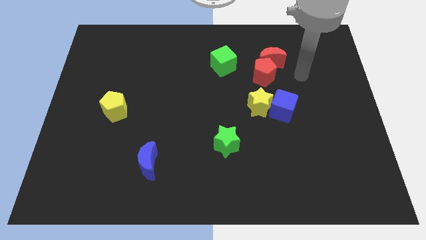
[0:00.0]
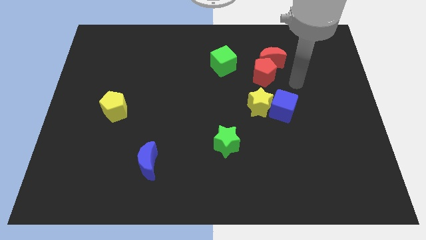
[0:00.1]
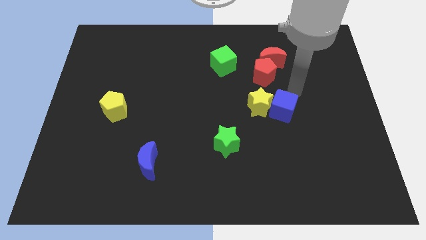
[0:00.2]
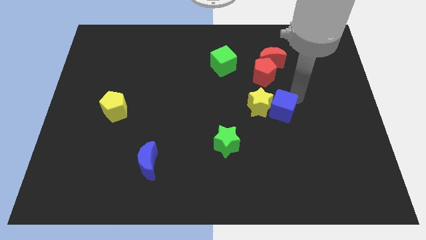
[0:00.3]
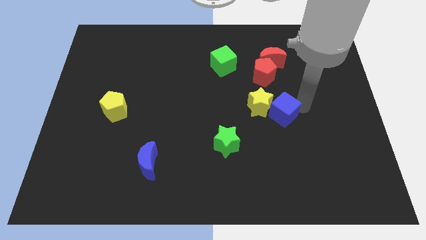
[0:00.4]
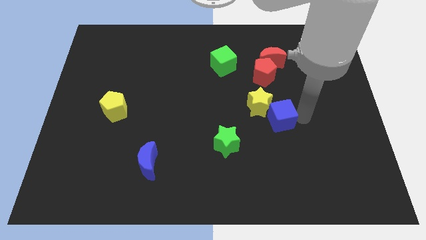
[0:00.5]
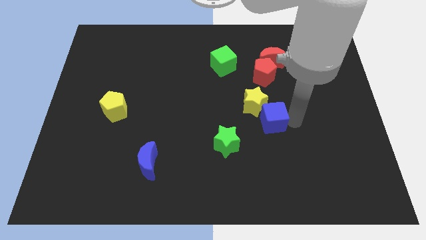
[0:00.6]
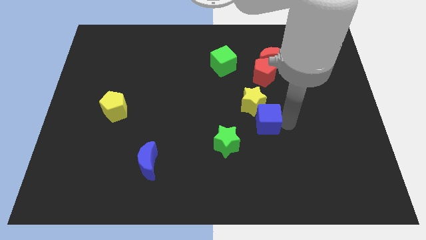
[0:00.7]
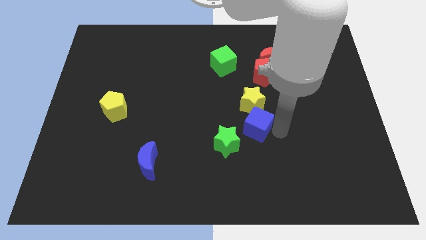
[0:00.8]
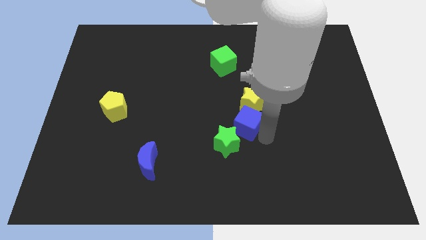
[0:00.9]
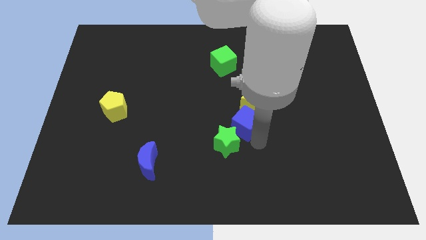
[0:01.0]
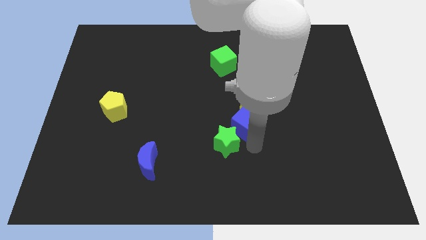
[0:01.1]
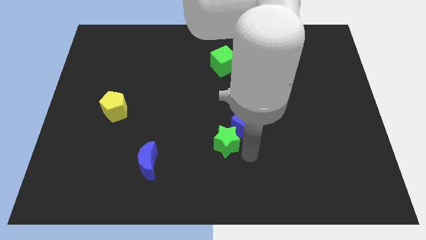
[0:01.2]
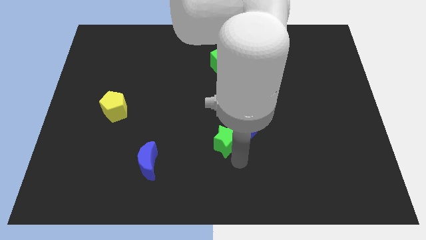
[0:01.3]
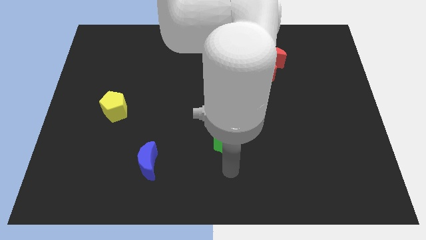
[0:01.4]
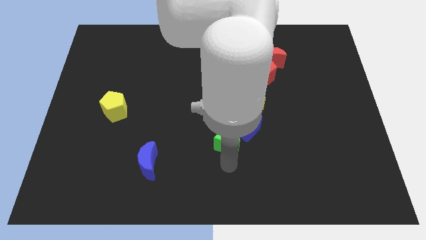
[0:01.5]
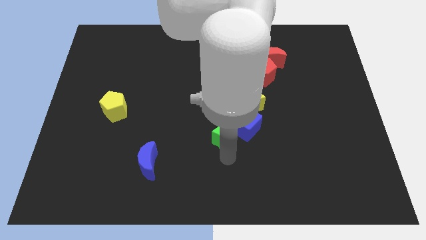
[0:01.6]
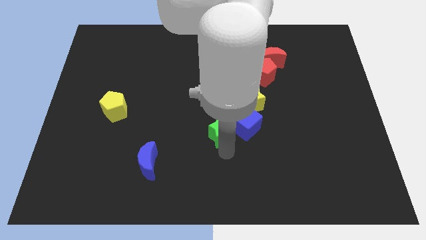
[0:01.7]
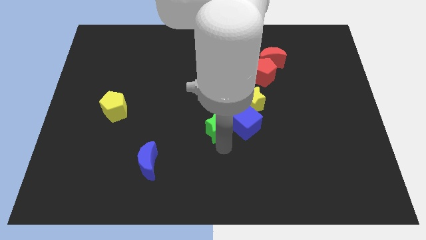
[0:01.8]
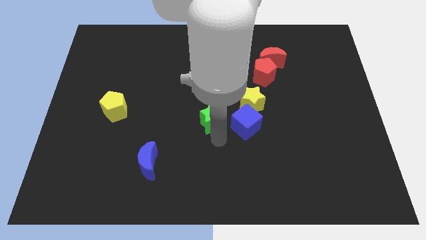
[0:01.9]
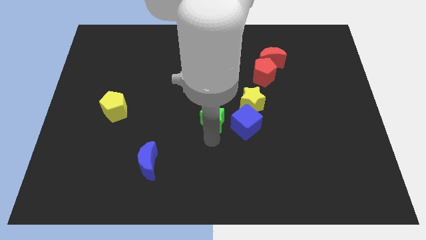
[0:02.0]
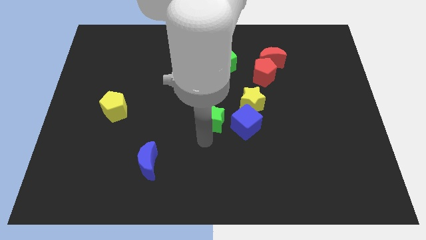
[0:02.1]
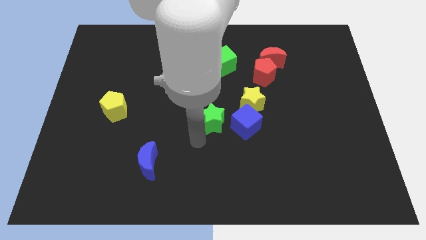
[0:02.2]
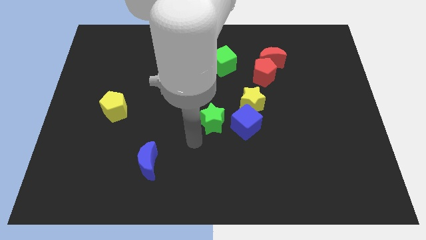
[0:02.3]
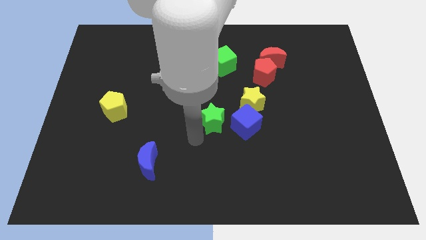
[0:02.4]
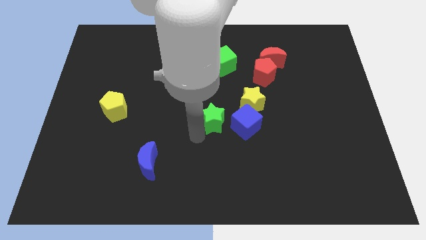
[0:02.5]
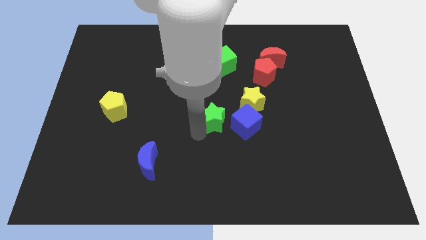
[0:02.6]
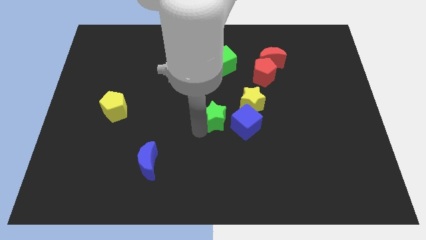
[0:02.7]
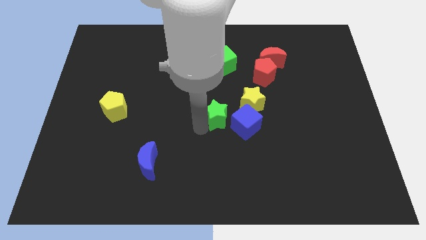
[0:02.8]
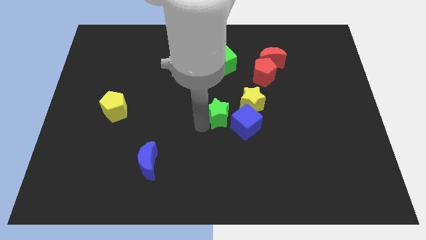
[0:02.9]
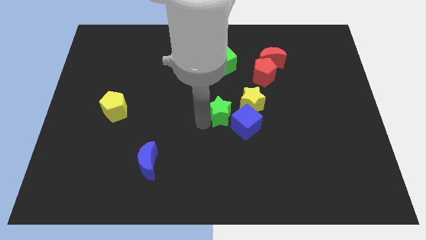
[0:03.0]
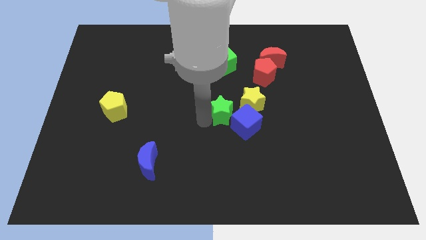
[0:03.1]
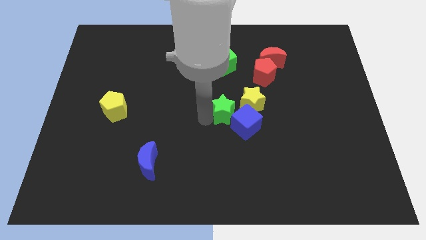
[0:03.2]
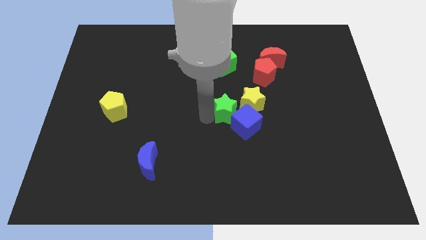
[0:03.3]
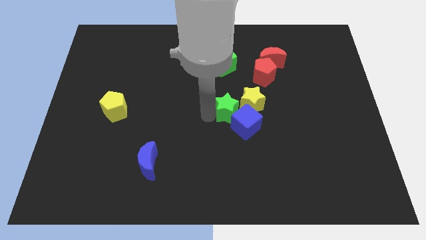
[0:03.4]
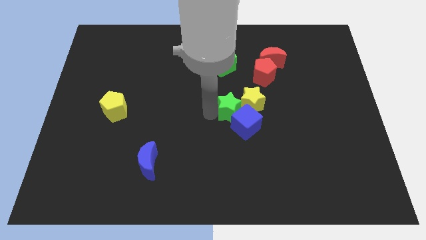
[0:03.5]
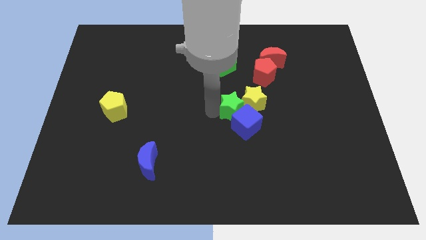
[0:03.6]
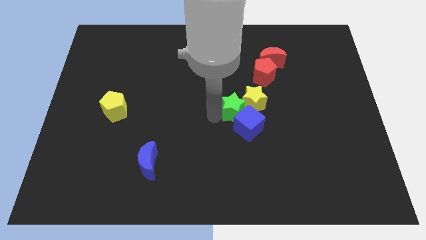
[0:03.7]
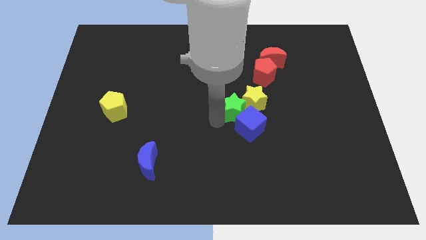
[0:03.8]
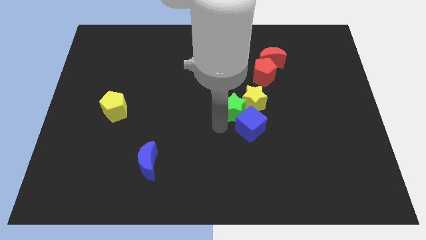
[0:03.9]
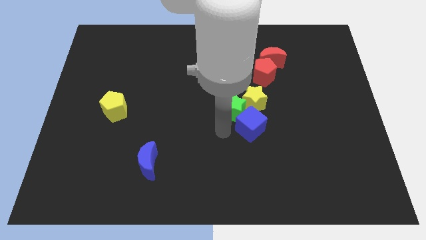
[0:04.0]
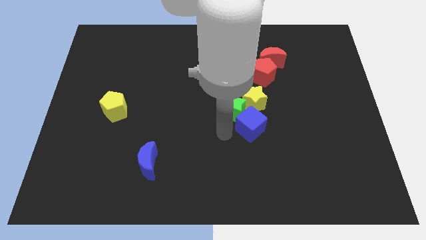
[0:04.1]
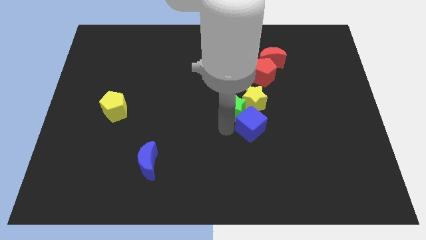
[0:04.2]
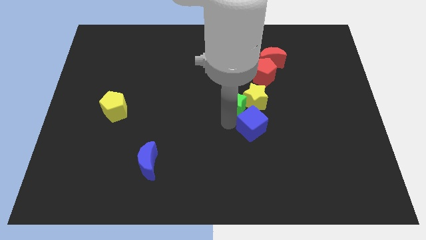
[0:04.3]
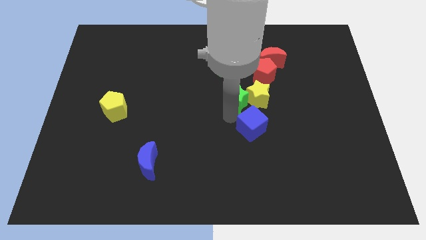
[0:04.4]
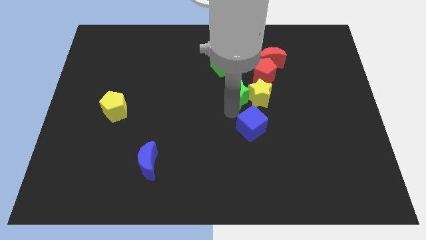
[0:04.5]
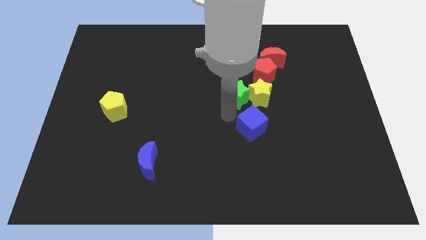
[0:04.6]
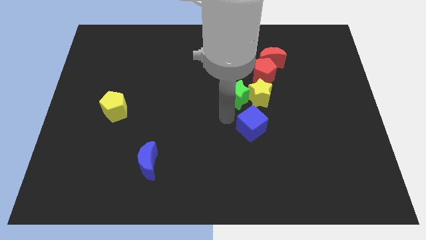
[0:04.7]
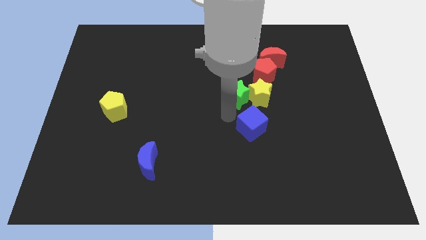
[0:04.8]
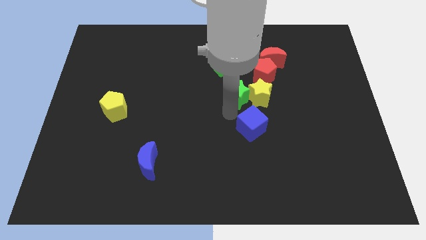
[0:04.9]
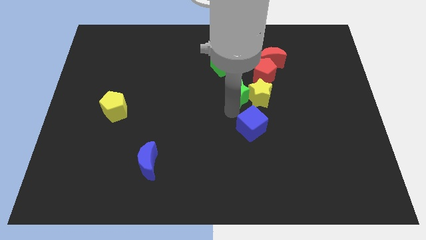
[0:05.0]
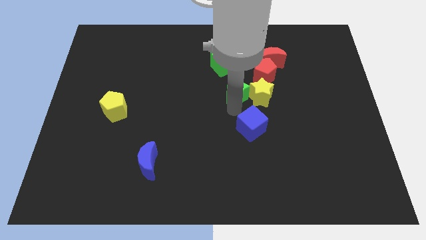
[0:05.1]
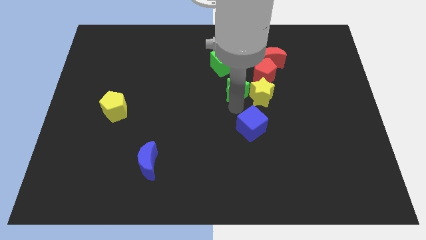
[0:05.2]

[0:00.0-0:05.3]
move the green star to the bottom right of the green cube

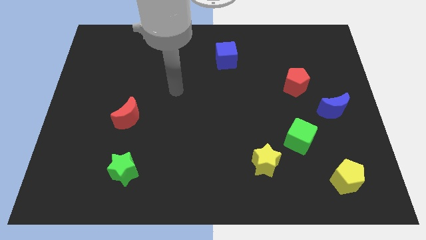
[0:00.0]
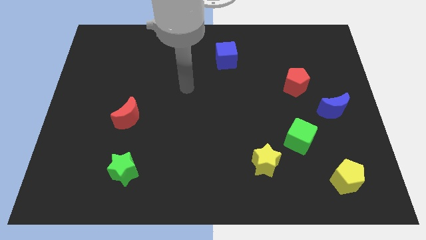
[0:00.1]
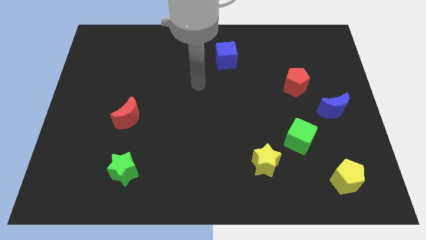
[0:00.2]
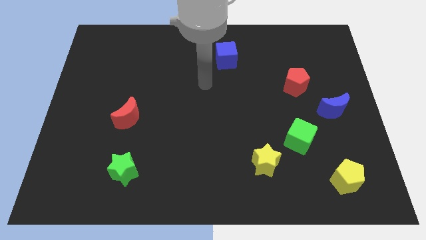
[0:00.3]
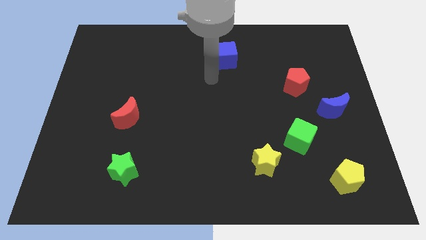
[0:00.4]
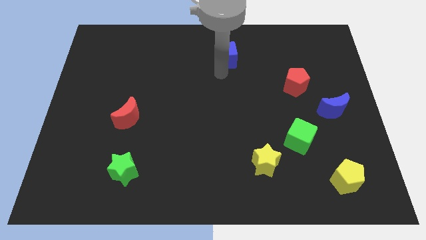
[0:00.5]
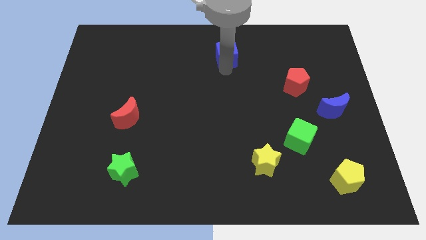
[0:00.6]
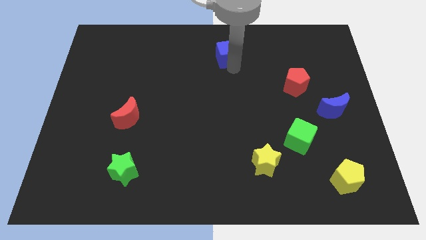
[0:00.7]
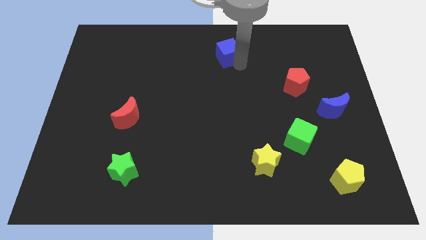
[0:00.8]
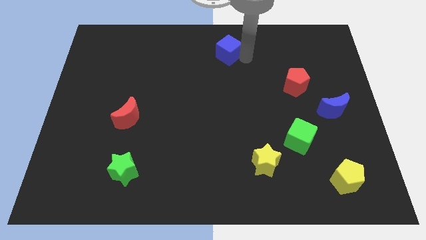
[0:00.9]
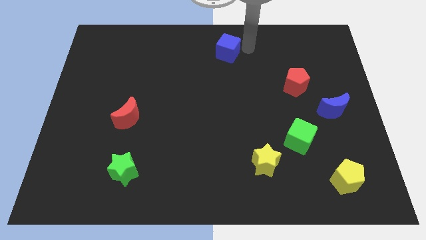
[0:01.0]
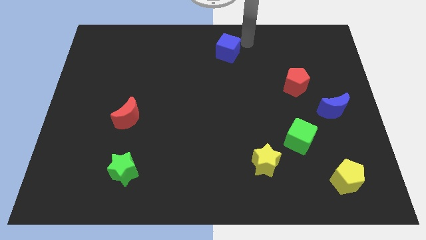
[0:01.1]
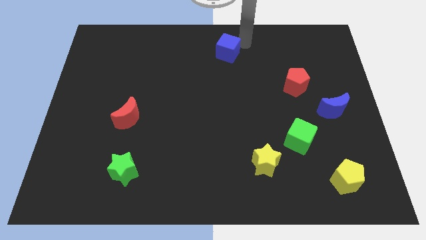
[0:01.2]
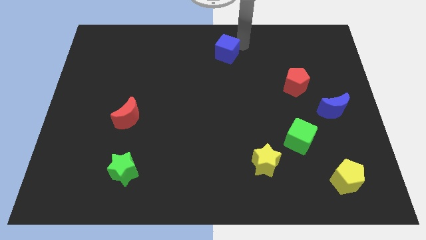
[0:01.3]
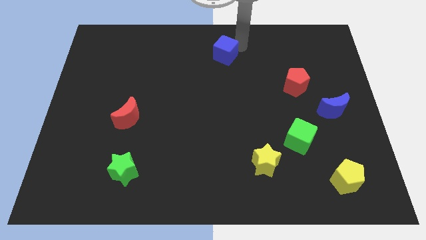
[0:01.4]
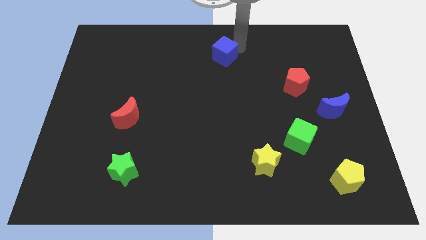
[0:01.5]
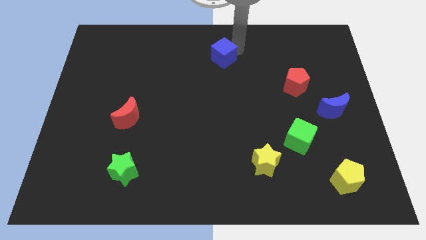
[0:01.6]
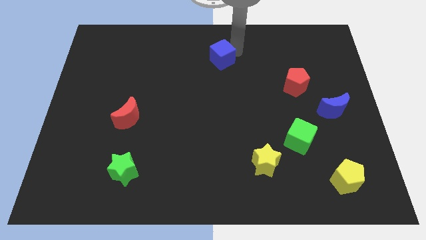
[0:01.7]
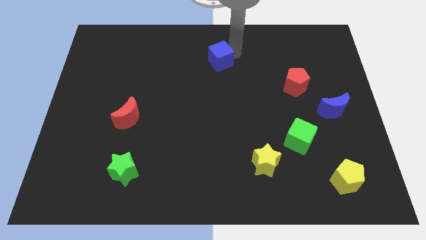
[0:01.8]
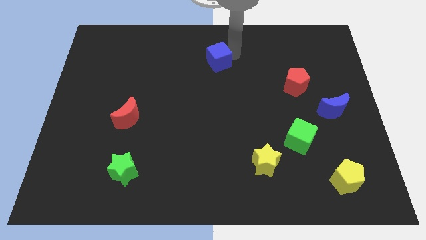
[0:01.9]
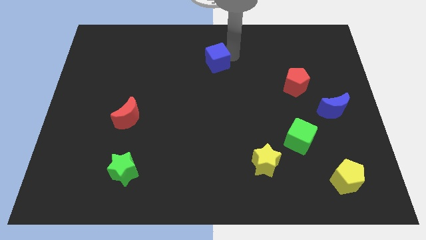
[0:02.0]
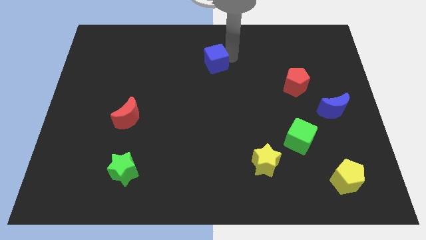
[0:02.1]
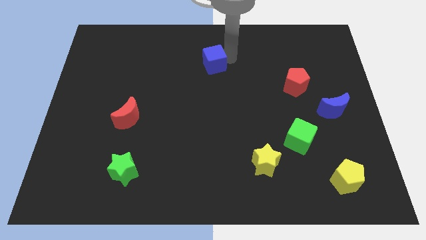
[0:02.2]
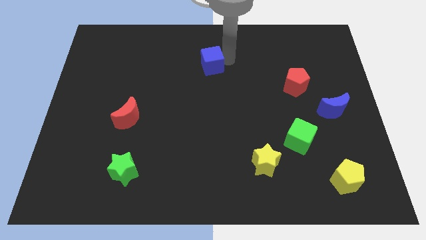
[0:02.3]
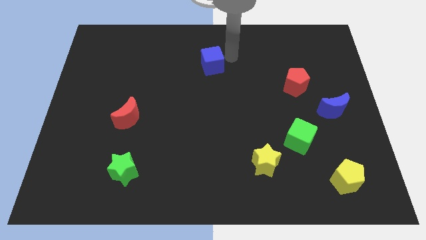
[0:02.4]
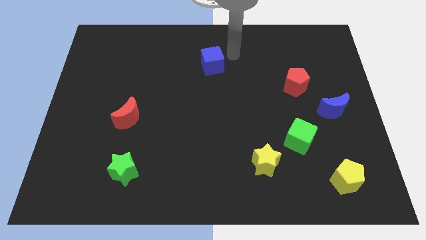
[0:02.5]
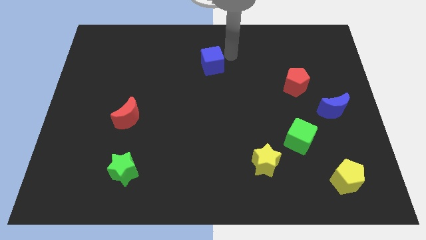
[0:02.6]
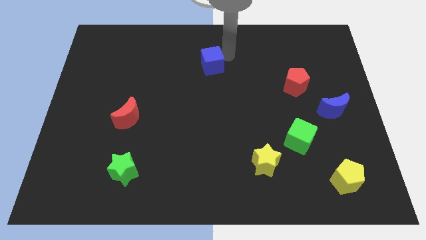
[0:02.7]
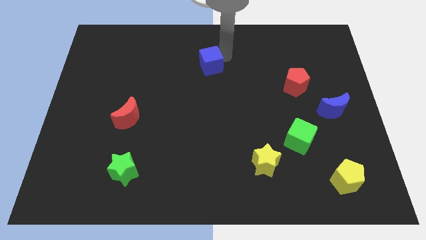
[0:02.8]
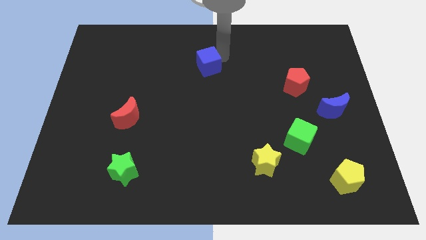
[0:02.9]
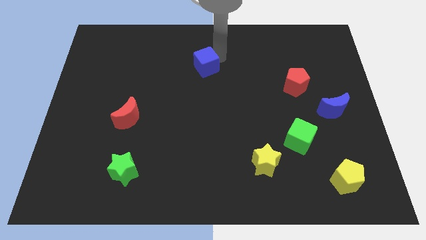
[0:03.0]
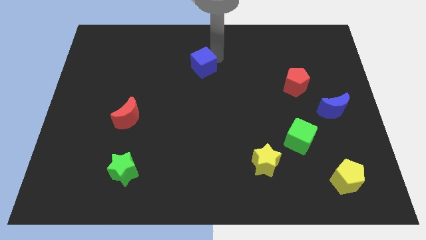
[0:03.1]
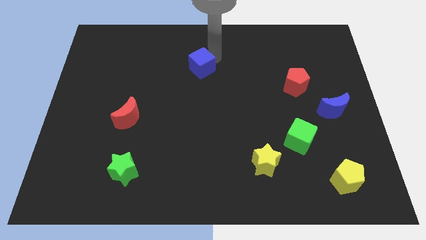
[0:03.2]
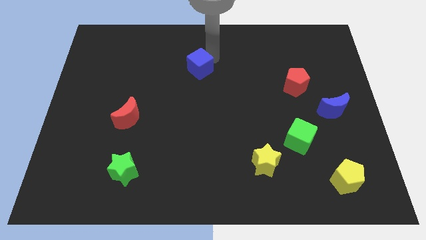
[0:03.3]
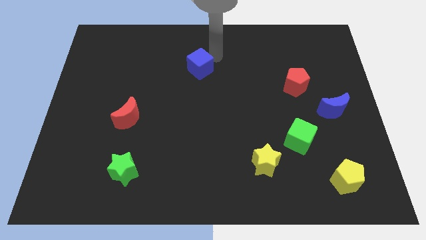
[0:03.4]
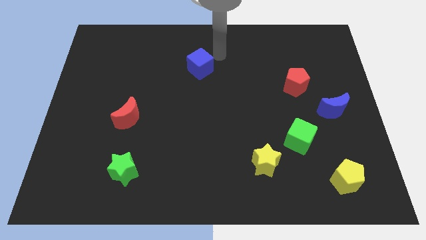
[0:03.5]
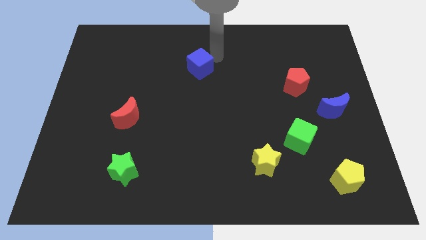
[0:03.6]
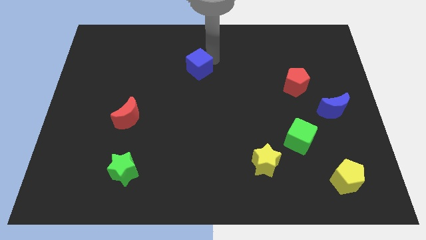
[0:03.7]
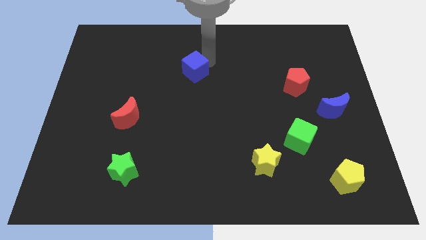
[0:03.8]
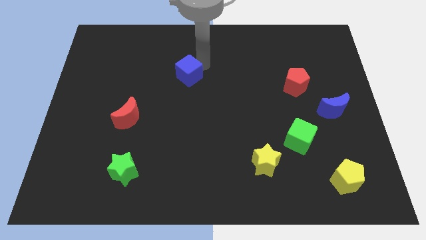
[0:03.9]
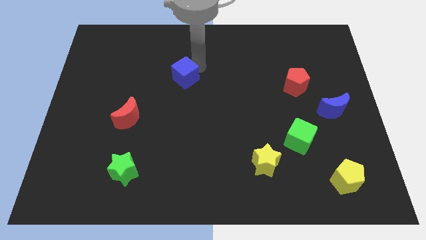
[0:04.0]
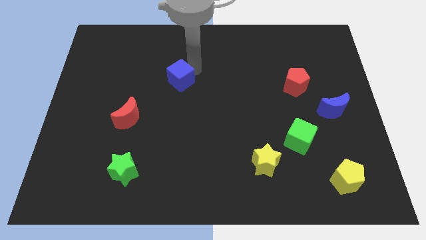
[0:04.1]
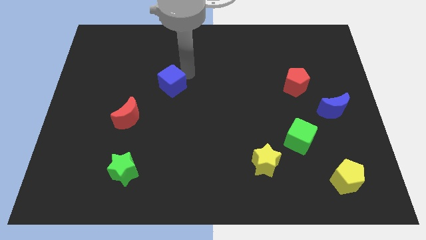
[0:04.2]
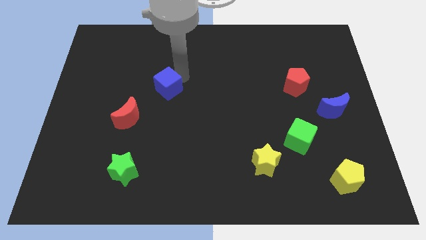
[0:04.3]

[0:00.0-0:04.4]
push the blue cube diagonally up and to the right of the red moon
